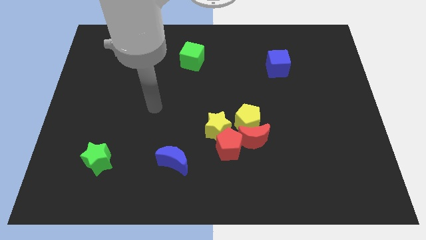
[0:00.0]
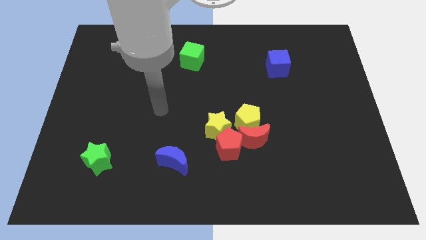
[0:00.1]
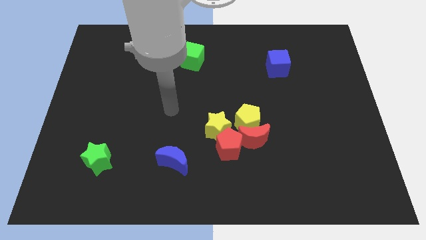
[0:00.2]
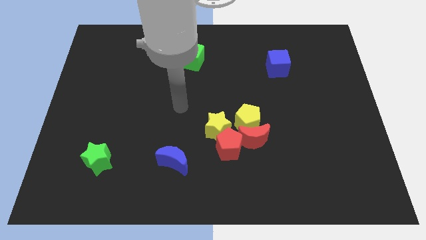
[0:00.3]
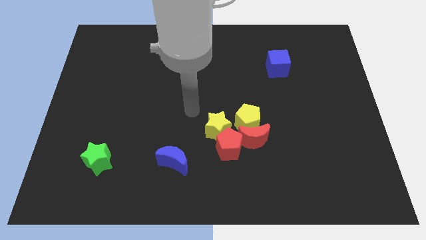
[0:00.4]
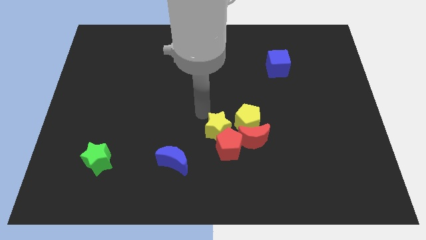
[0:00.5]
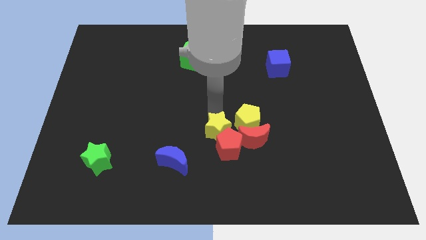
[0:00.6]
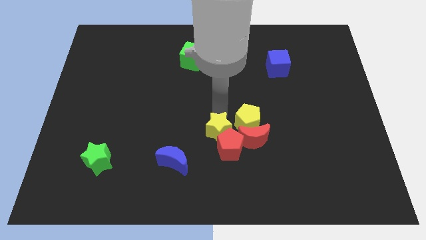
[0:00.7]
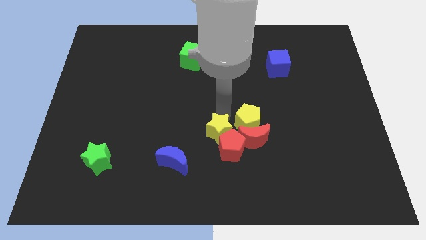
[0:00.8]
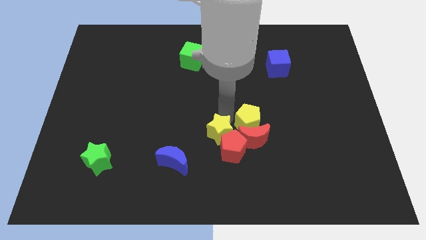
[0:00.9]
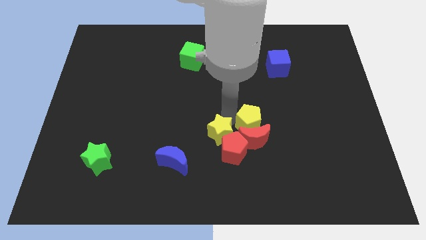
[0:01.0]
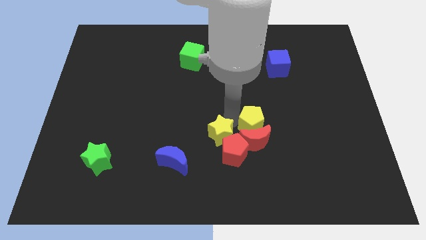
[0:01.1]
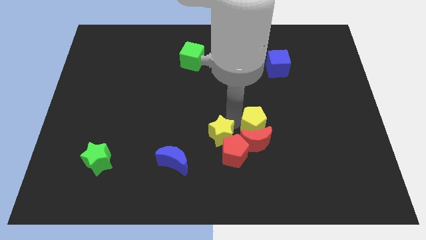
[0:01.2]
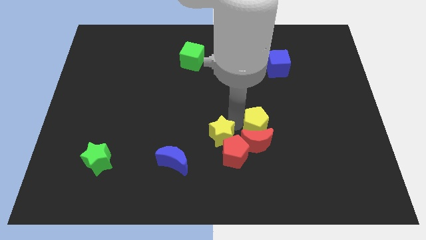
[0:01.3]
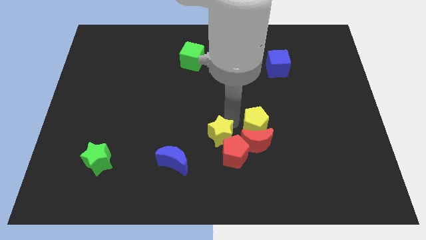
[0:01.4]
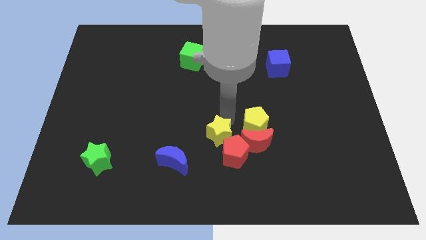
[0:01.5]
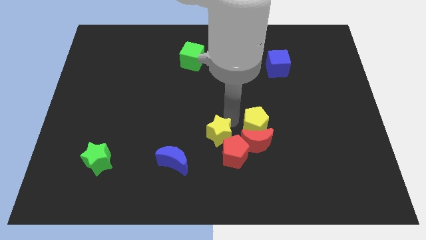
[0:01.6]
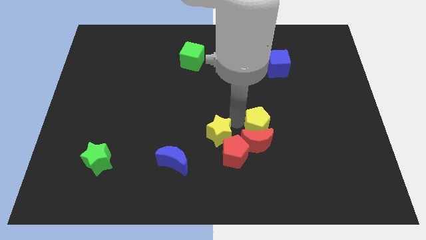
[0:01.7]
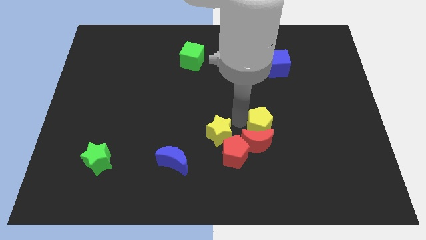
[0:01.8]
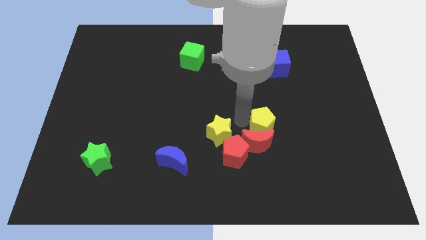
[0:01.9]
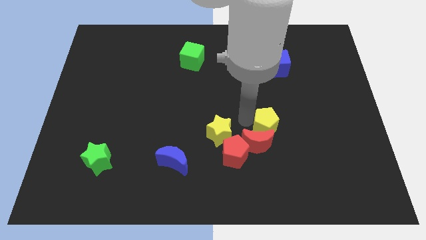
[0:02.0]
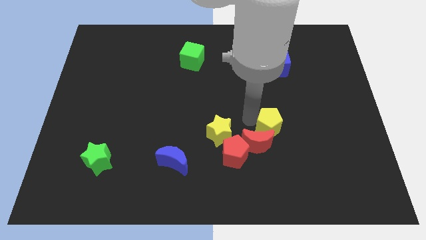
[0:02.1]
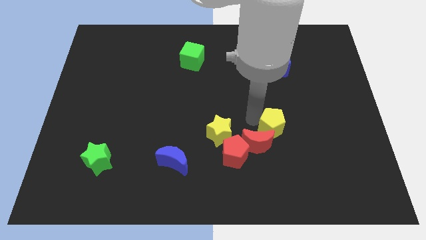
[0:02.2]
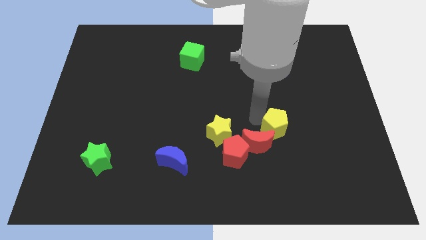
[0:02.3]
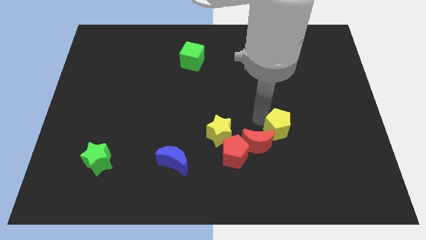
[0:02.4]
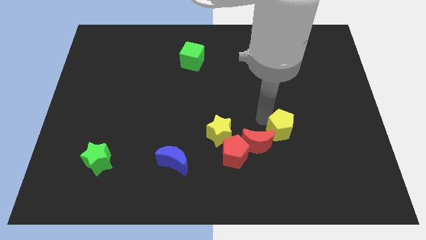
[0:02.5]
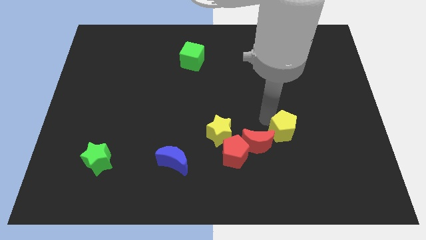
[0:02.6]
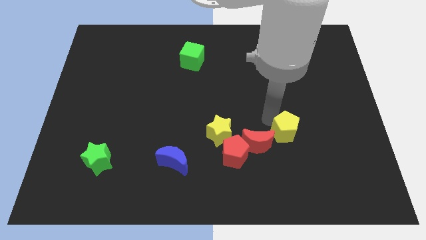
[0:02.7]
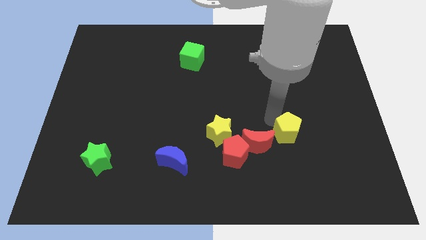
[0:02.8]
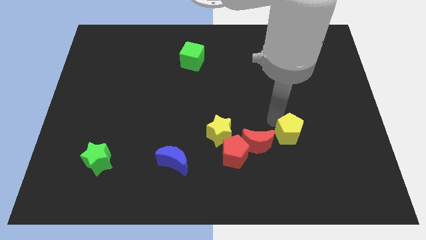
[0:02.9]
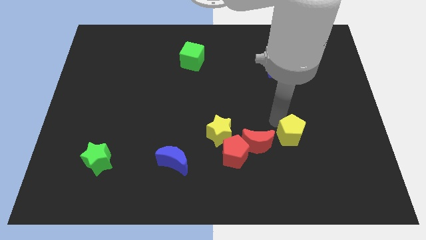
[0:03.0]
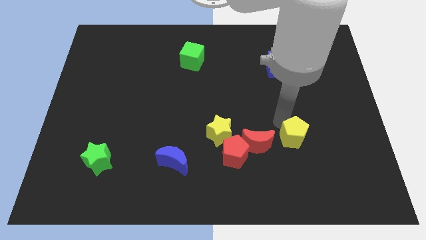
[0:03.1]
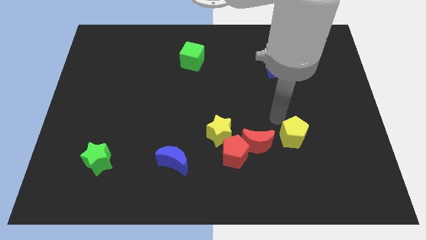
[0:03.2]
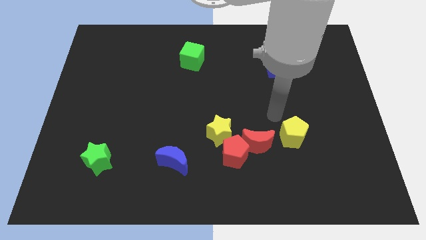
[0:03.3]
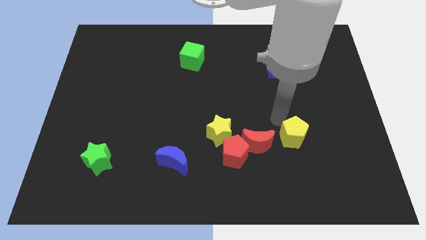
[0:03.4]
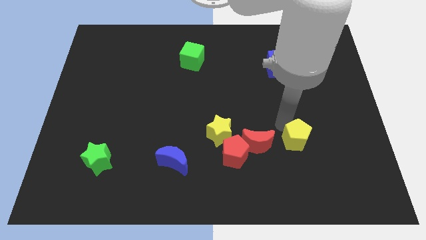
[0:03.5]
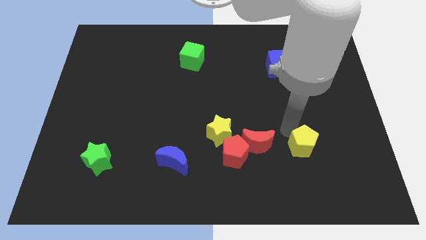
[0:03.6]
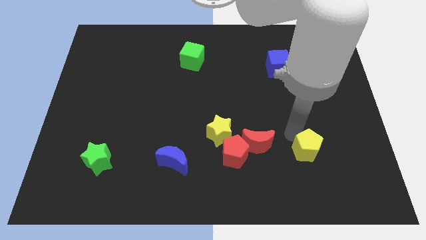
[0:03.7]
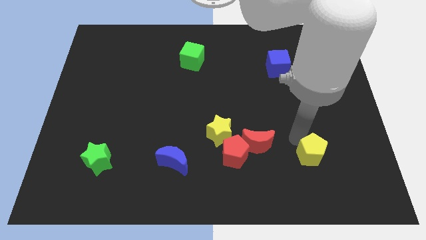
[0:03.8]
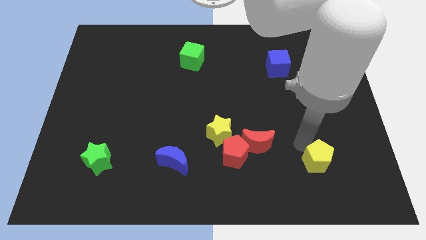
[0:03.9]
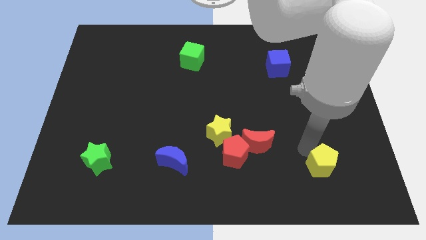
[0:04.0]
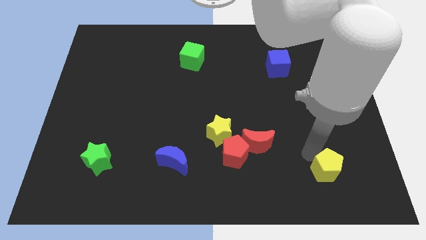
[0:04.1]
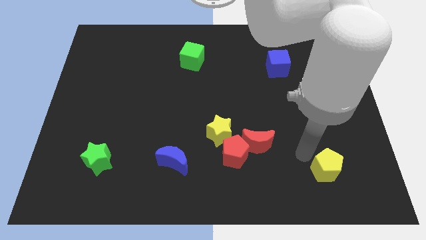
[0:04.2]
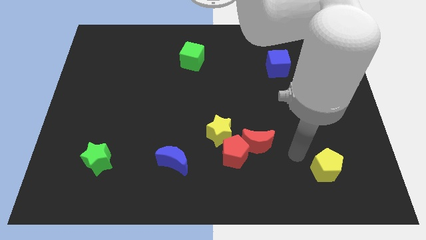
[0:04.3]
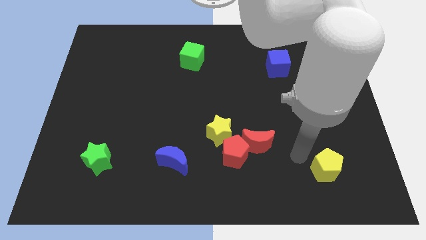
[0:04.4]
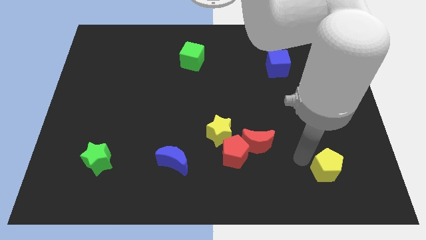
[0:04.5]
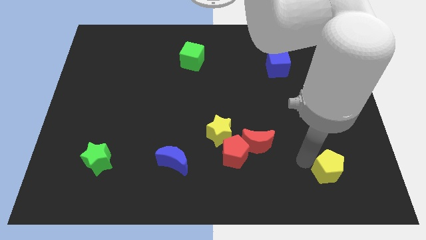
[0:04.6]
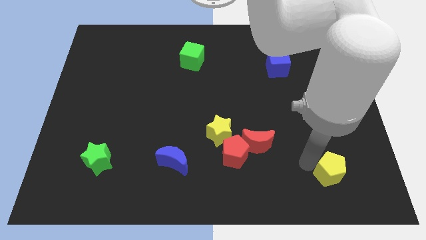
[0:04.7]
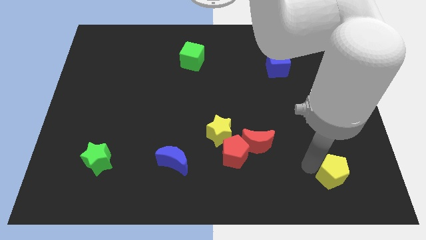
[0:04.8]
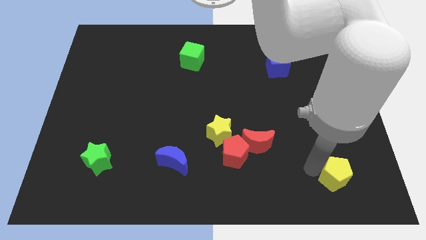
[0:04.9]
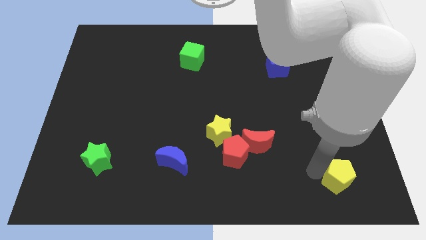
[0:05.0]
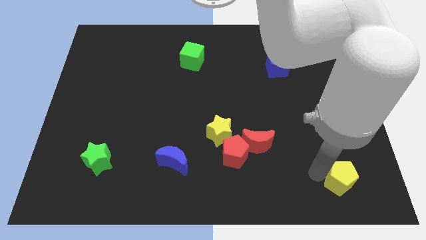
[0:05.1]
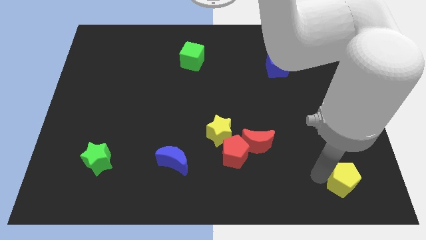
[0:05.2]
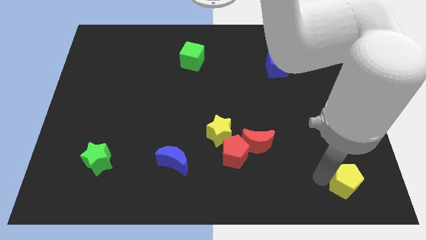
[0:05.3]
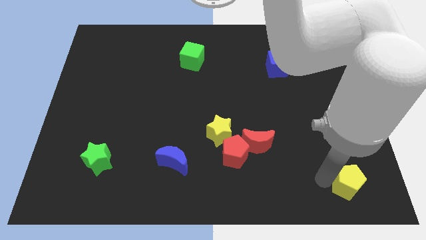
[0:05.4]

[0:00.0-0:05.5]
slide the yellow pentagon to the bottom right of the board

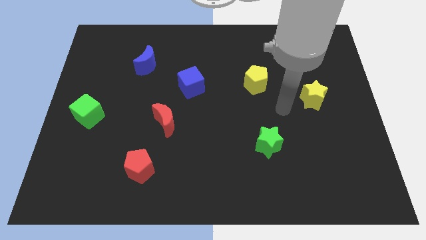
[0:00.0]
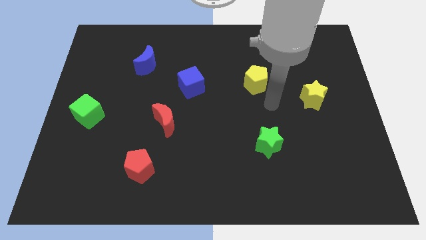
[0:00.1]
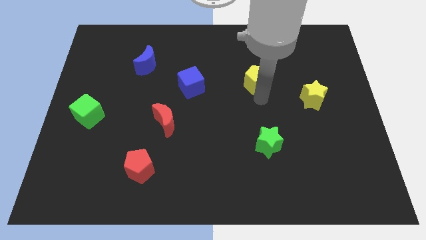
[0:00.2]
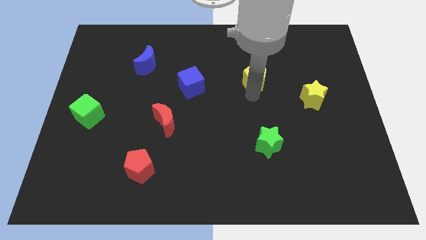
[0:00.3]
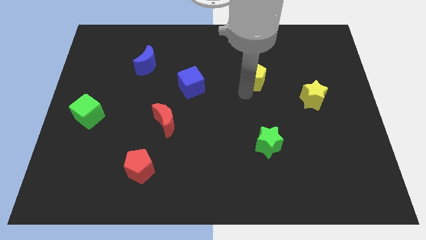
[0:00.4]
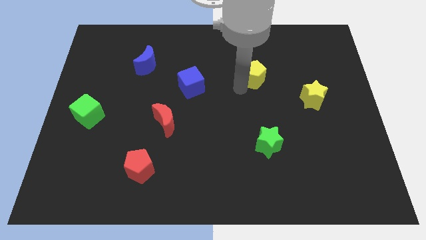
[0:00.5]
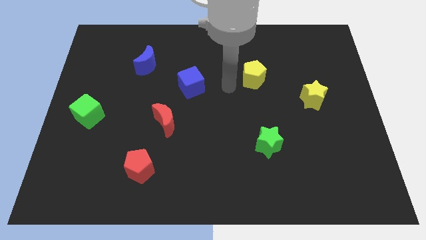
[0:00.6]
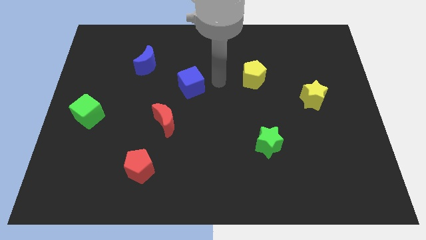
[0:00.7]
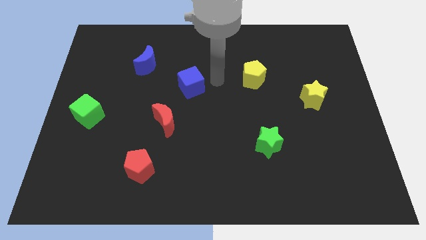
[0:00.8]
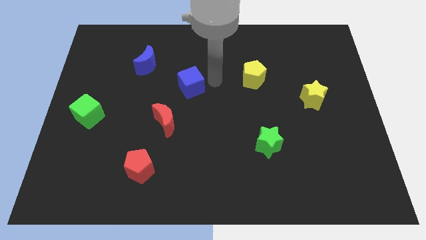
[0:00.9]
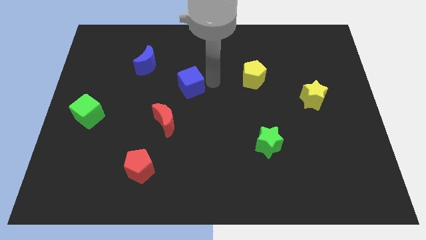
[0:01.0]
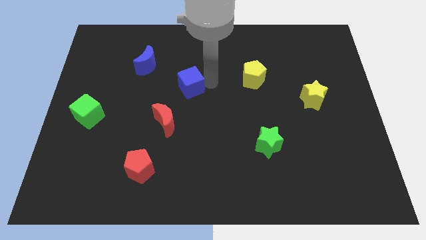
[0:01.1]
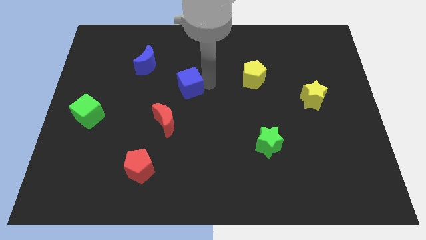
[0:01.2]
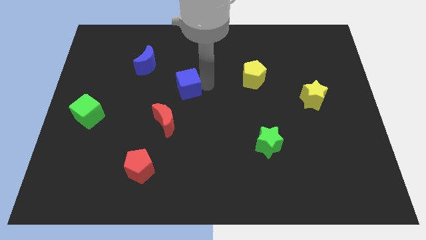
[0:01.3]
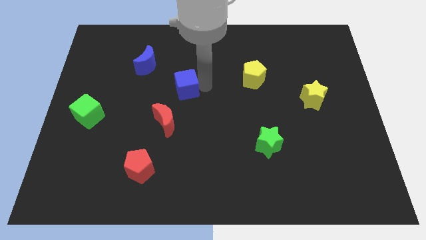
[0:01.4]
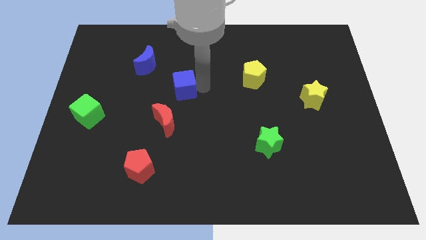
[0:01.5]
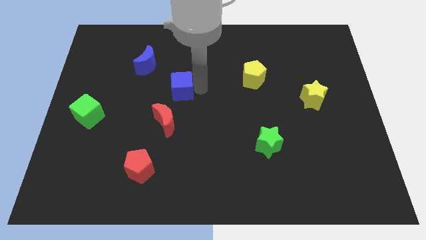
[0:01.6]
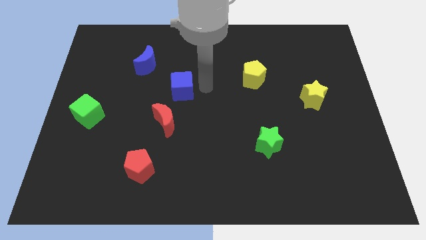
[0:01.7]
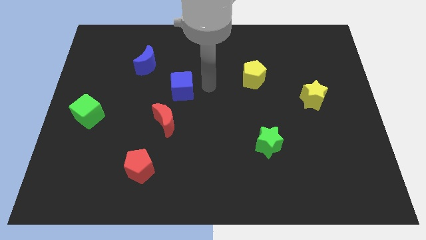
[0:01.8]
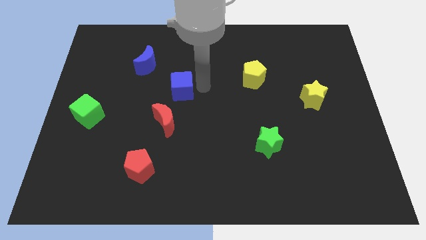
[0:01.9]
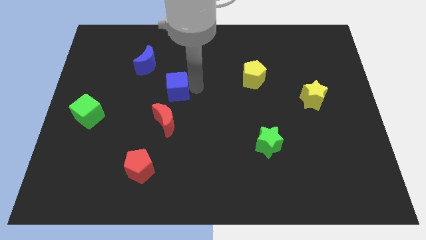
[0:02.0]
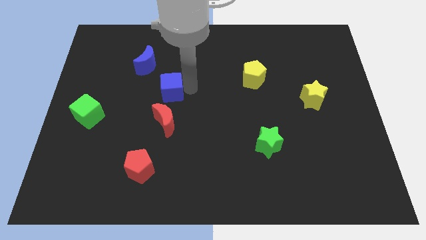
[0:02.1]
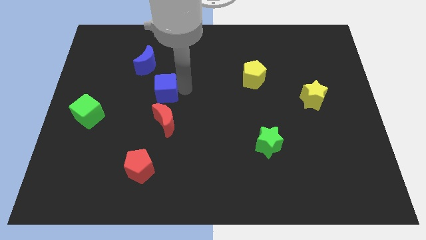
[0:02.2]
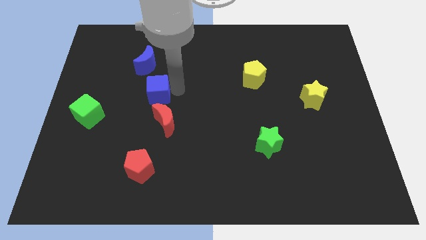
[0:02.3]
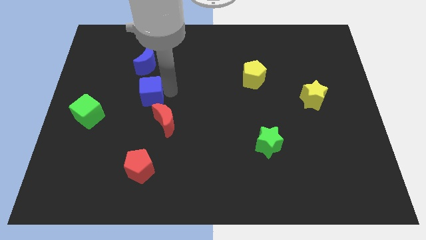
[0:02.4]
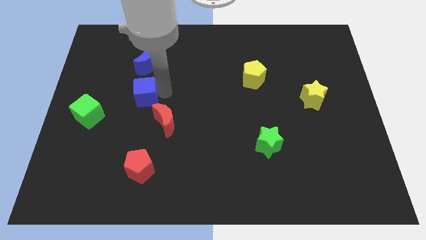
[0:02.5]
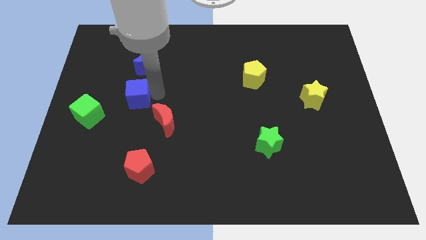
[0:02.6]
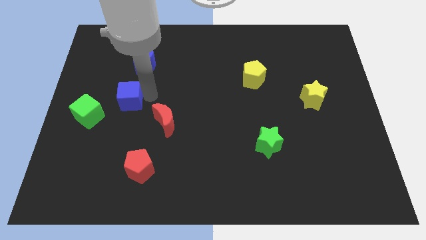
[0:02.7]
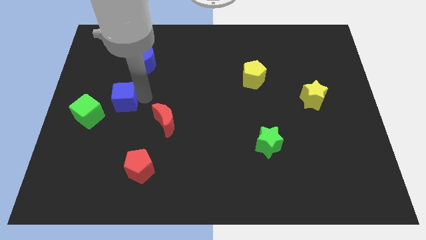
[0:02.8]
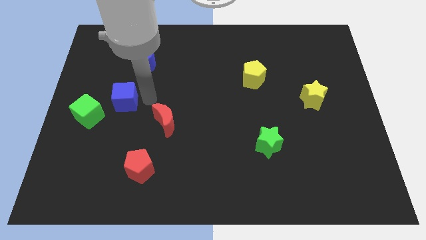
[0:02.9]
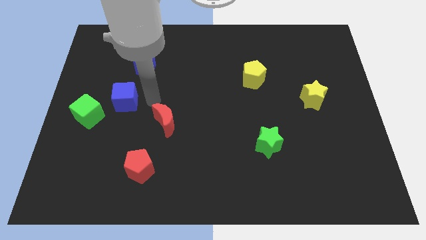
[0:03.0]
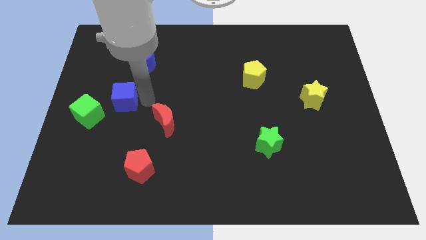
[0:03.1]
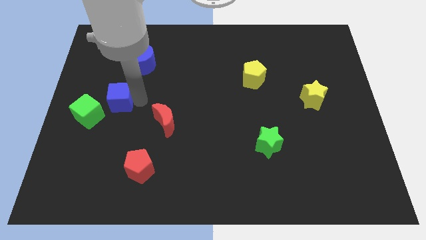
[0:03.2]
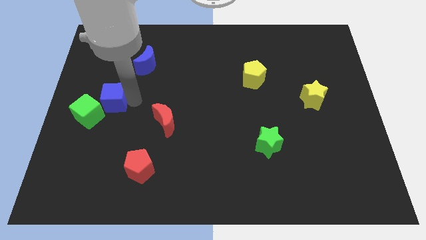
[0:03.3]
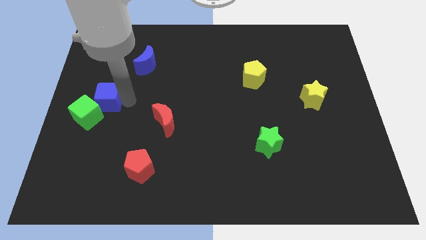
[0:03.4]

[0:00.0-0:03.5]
move the blue cube to the center left
